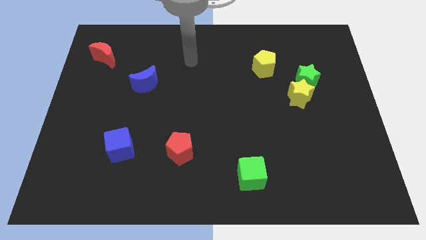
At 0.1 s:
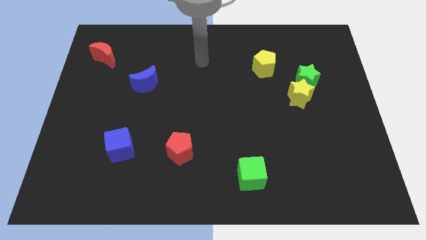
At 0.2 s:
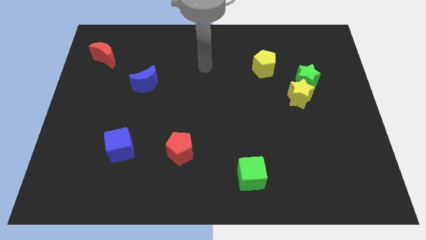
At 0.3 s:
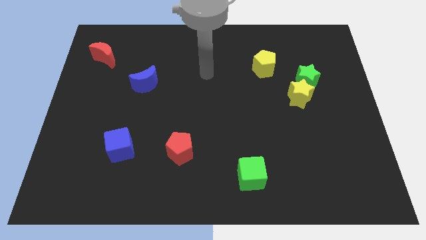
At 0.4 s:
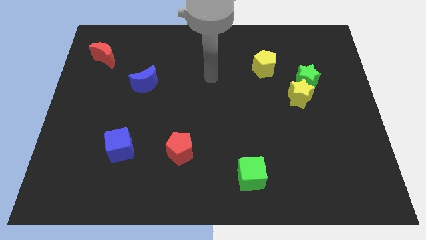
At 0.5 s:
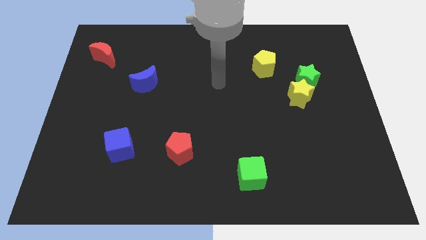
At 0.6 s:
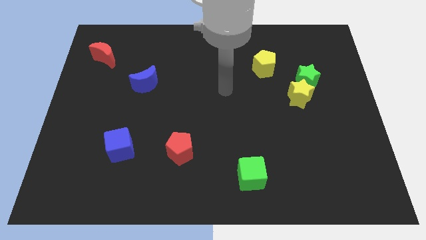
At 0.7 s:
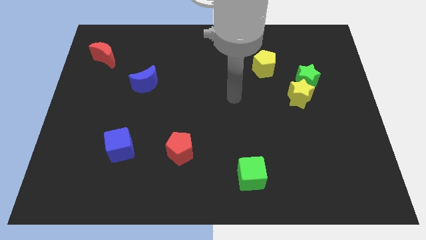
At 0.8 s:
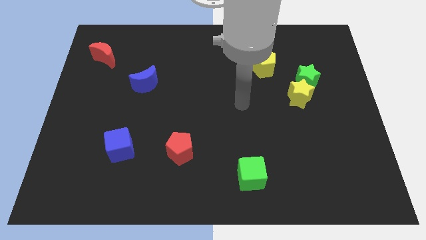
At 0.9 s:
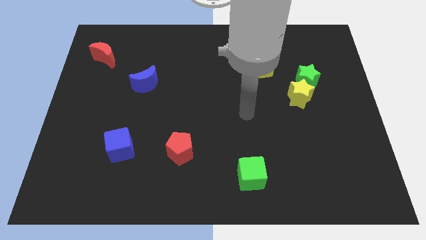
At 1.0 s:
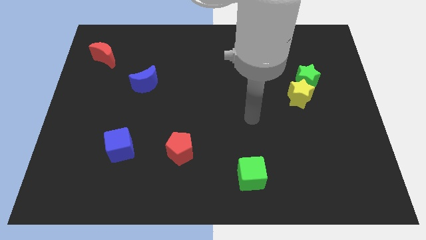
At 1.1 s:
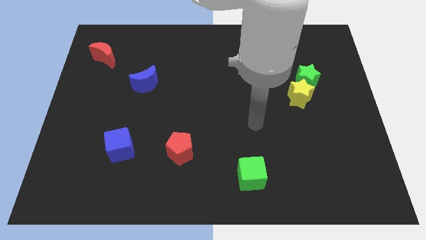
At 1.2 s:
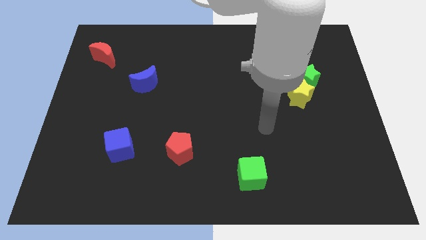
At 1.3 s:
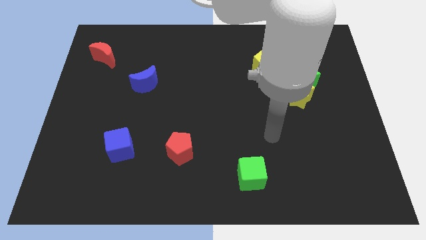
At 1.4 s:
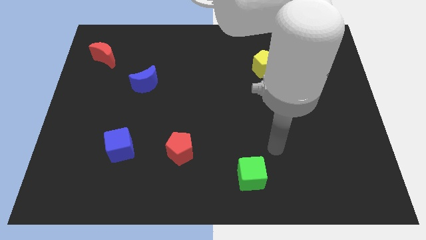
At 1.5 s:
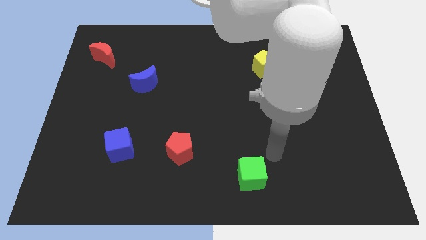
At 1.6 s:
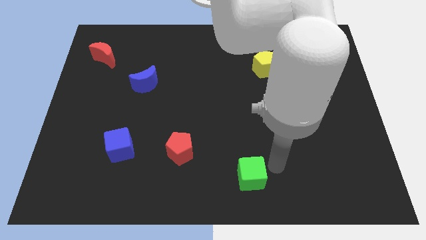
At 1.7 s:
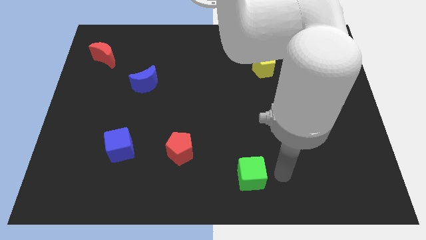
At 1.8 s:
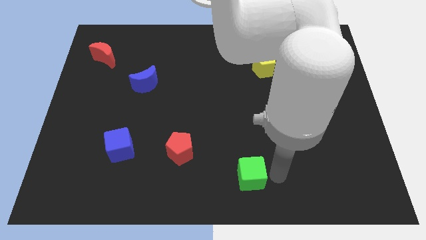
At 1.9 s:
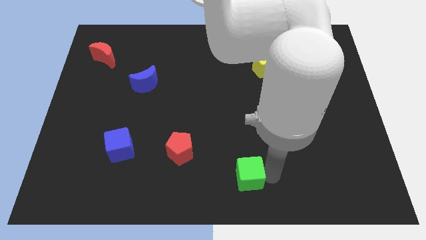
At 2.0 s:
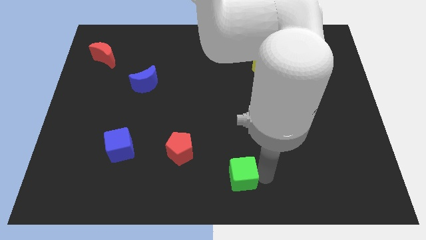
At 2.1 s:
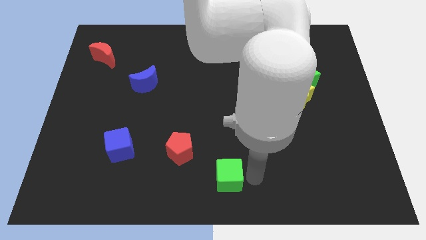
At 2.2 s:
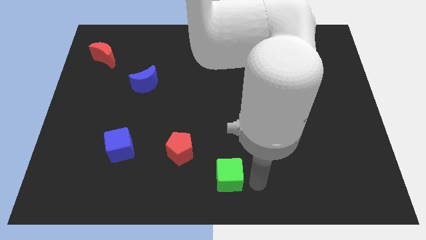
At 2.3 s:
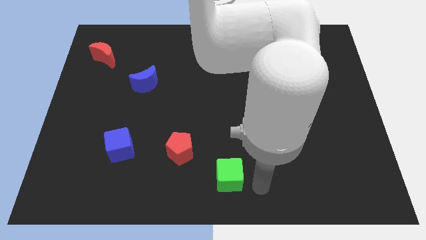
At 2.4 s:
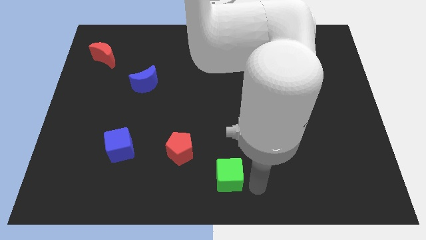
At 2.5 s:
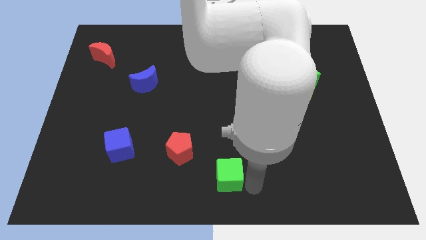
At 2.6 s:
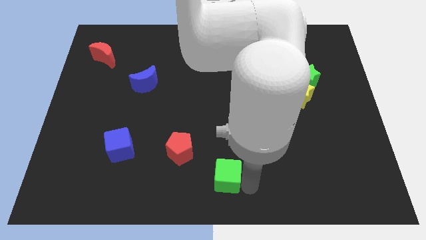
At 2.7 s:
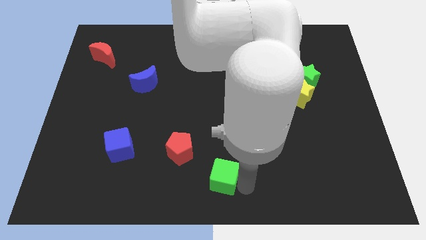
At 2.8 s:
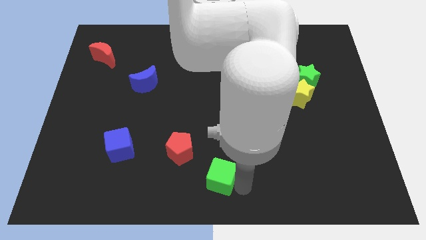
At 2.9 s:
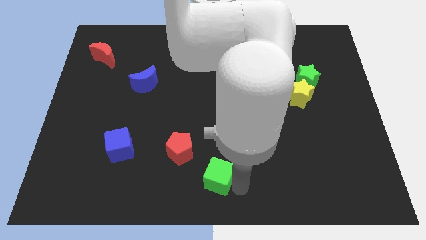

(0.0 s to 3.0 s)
slightly slide the green cube left

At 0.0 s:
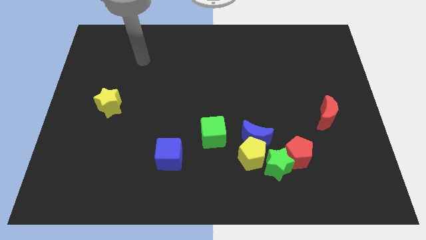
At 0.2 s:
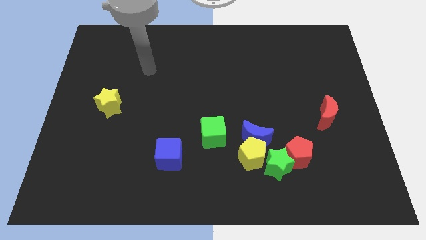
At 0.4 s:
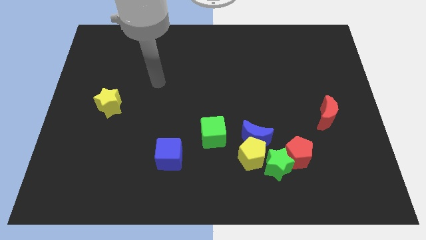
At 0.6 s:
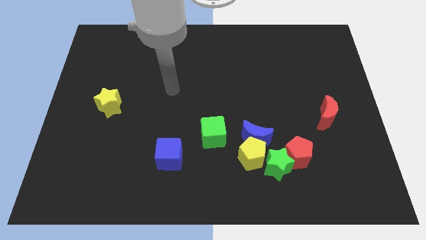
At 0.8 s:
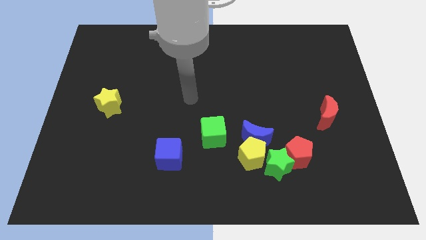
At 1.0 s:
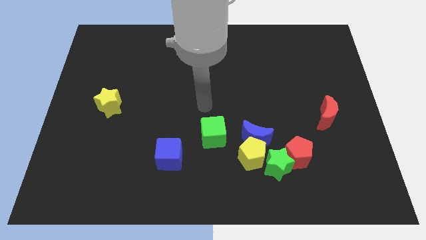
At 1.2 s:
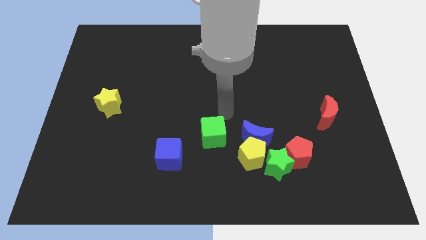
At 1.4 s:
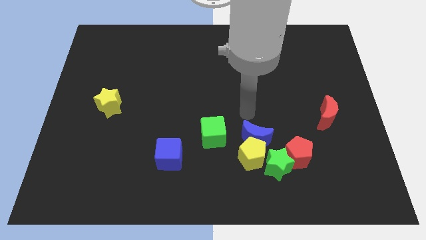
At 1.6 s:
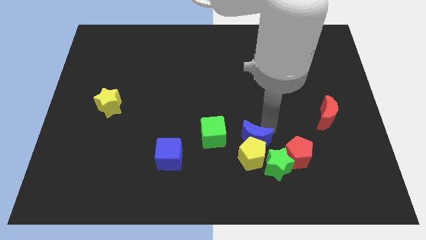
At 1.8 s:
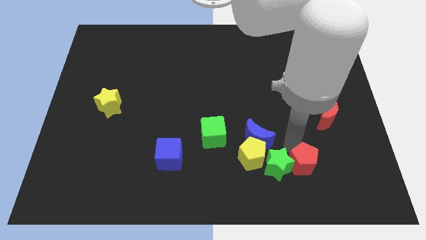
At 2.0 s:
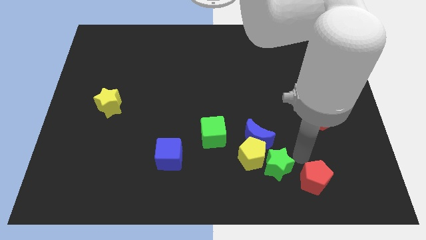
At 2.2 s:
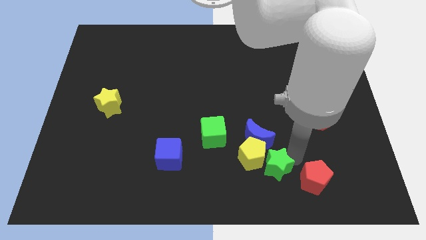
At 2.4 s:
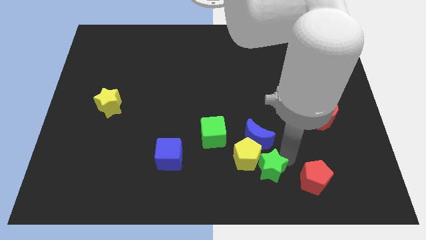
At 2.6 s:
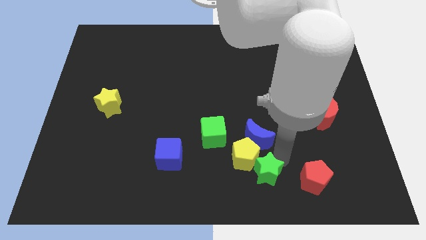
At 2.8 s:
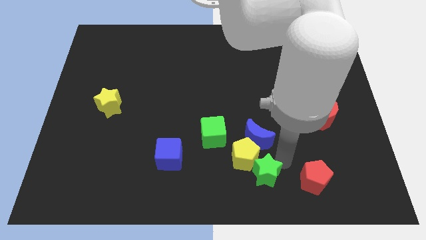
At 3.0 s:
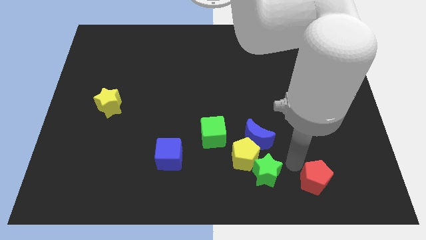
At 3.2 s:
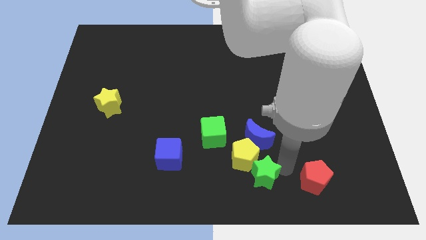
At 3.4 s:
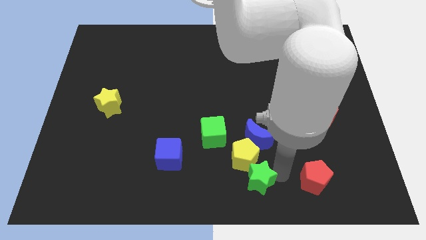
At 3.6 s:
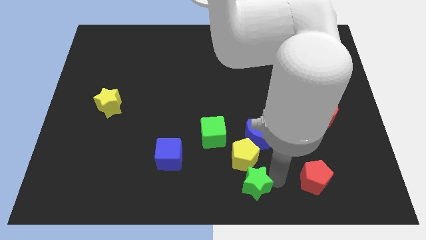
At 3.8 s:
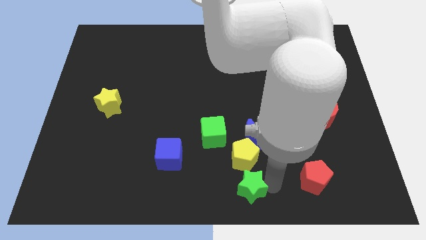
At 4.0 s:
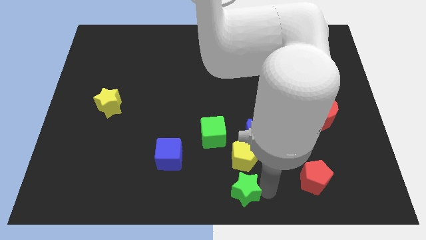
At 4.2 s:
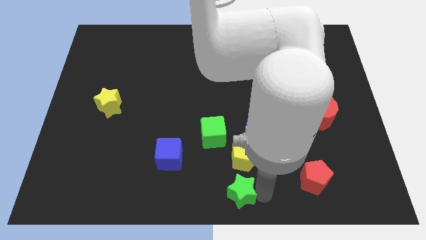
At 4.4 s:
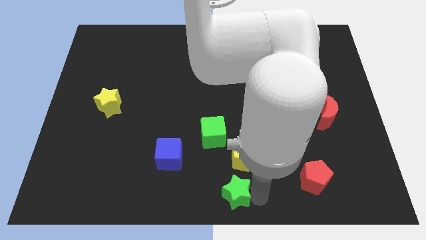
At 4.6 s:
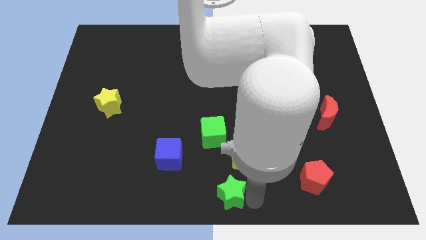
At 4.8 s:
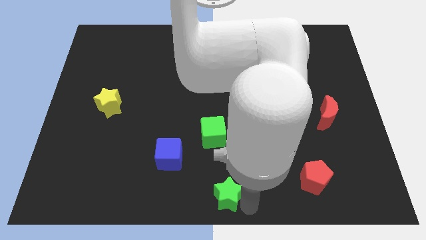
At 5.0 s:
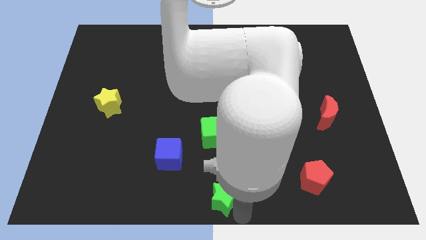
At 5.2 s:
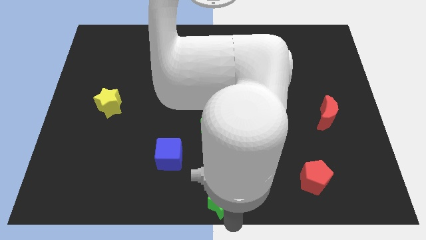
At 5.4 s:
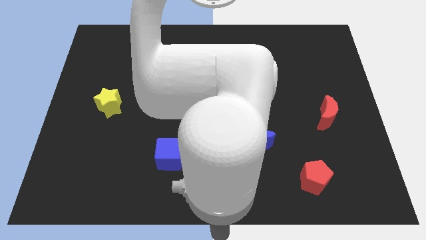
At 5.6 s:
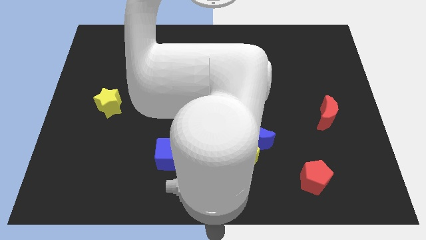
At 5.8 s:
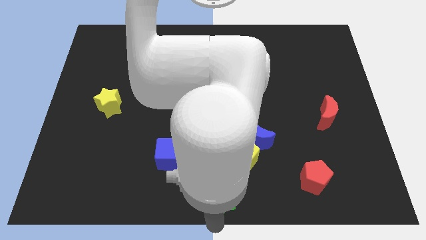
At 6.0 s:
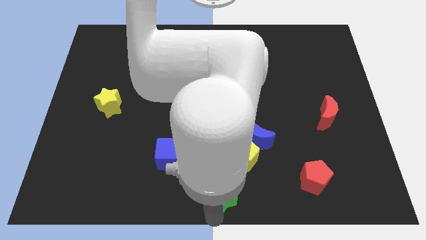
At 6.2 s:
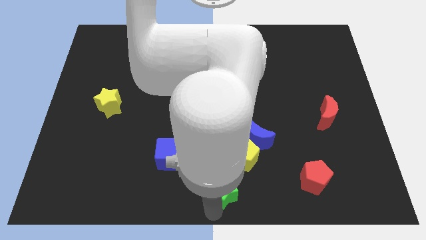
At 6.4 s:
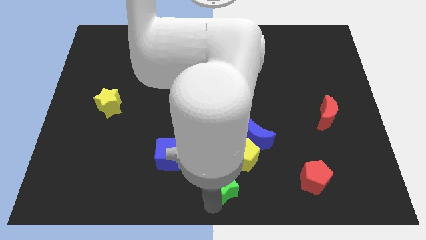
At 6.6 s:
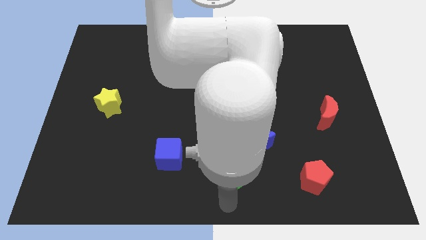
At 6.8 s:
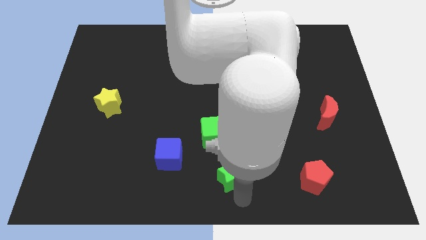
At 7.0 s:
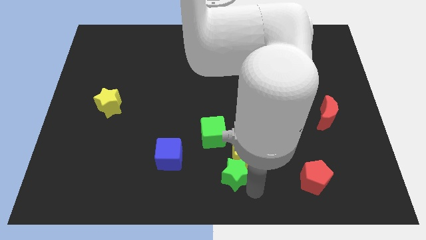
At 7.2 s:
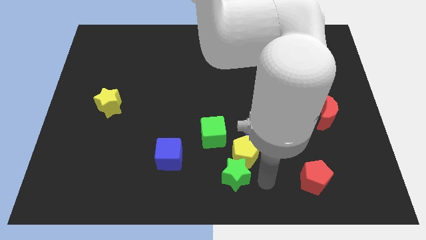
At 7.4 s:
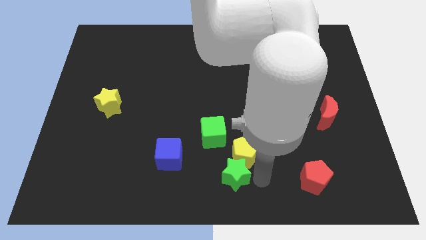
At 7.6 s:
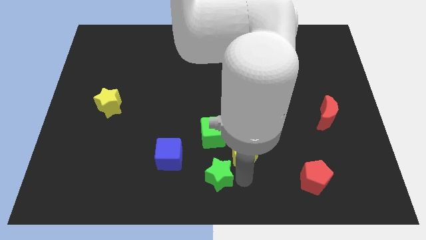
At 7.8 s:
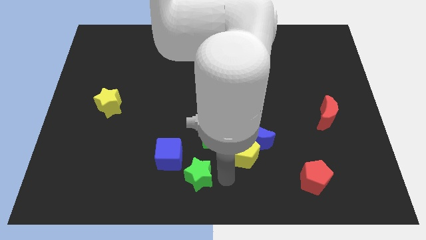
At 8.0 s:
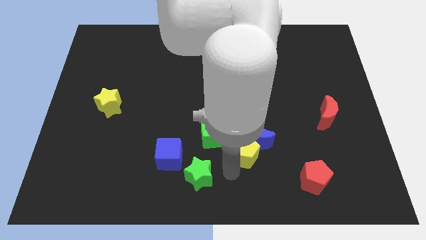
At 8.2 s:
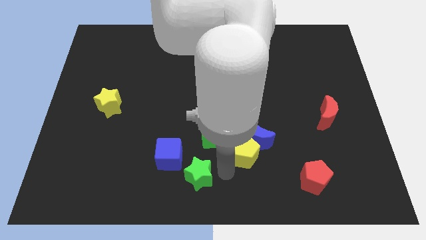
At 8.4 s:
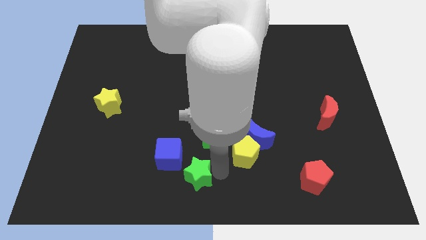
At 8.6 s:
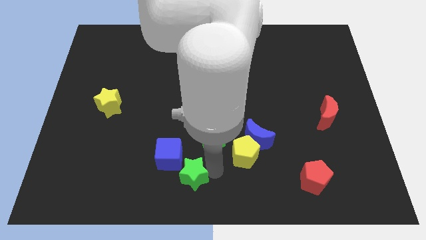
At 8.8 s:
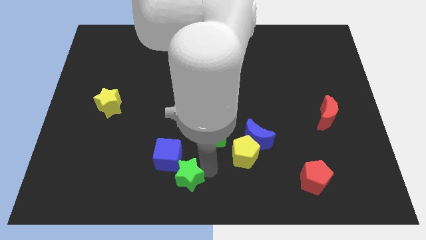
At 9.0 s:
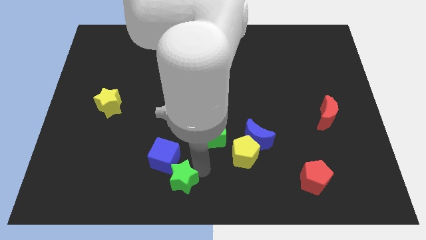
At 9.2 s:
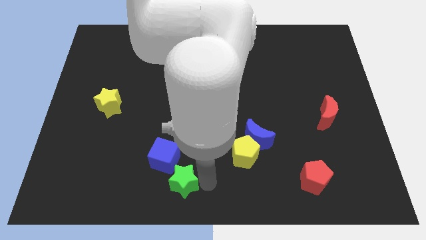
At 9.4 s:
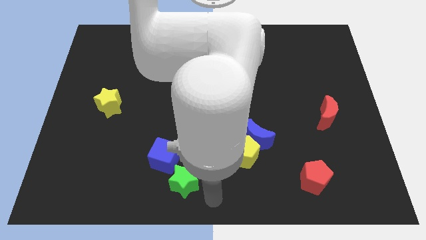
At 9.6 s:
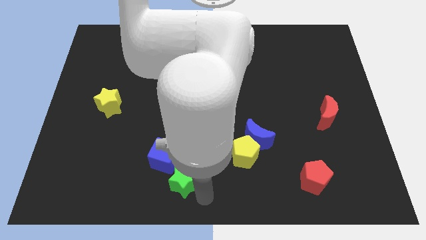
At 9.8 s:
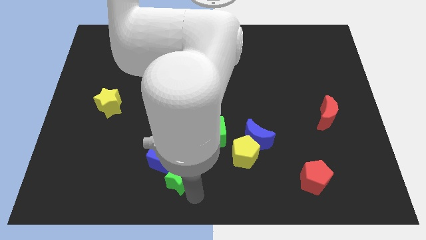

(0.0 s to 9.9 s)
move the green star to the left
